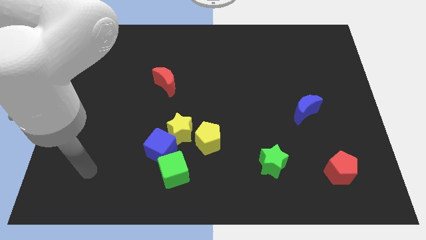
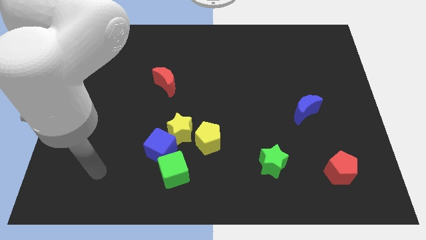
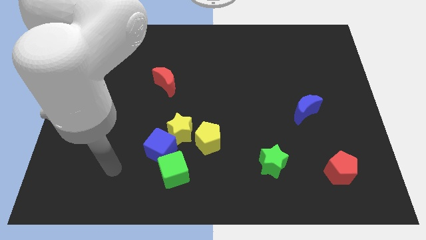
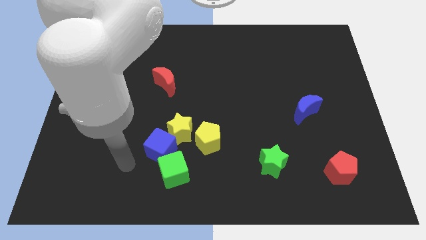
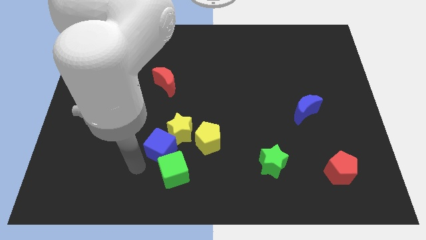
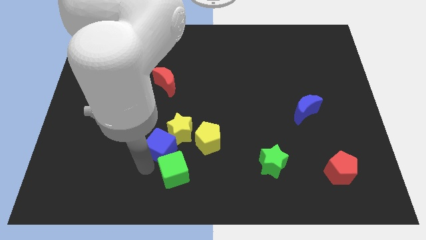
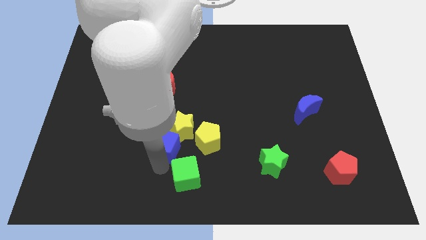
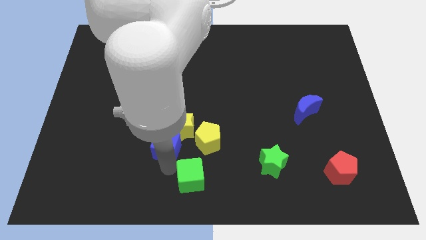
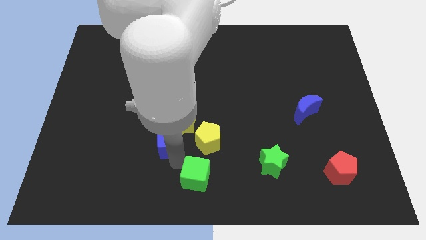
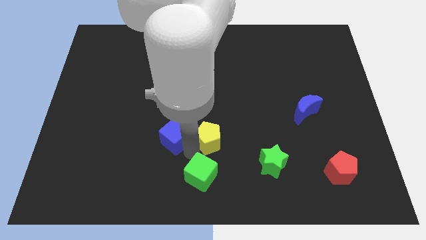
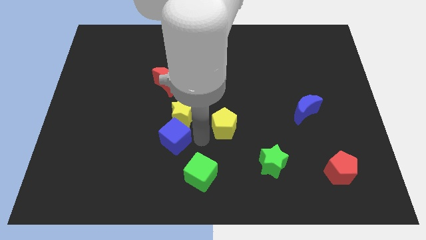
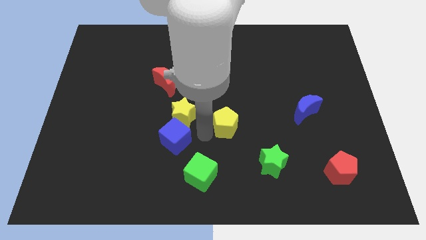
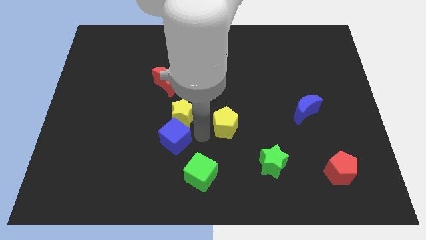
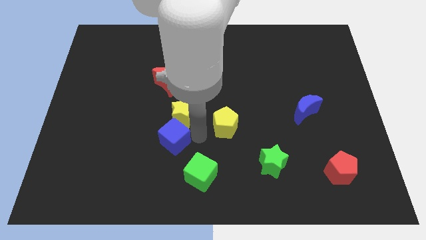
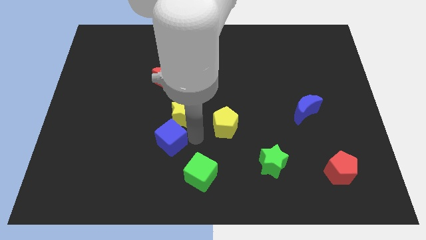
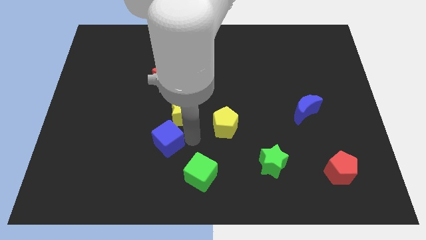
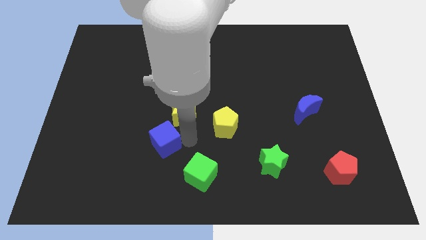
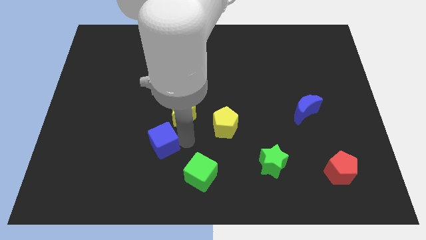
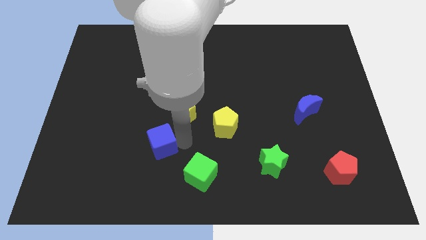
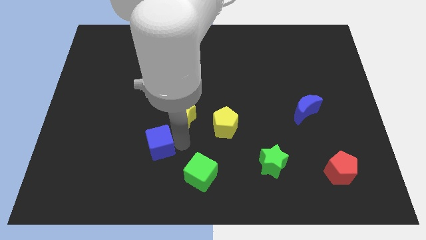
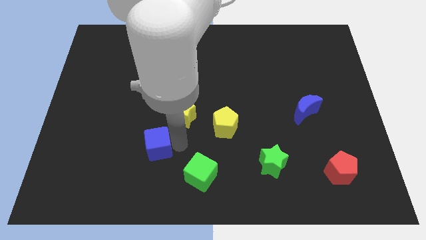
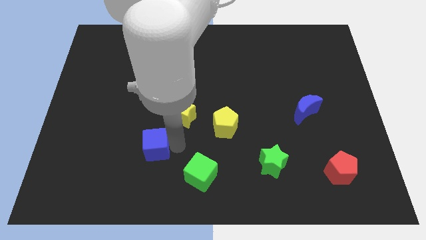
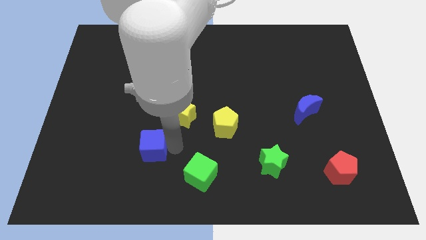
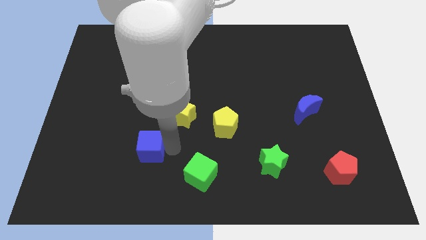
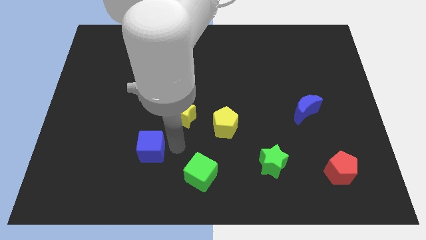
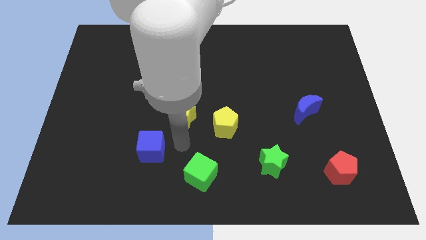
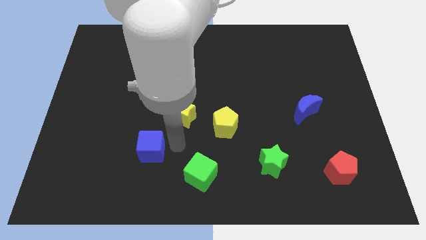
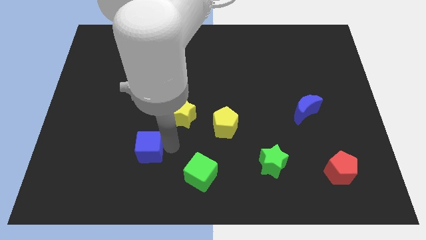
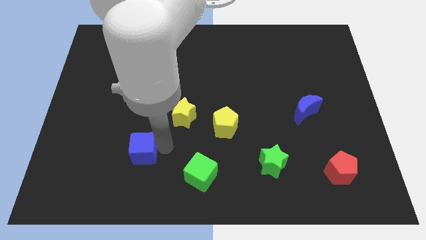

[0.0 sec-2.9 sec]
separate the blue cube from the yellow star and green cube

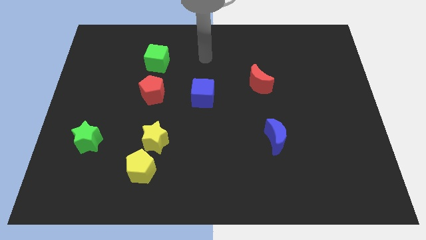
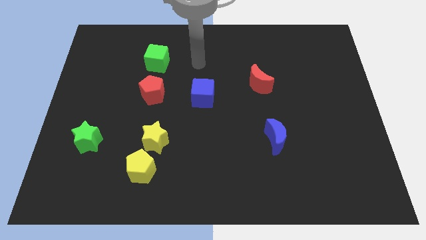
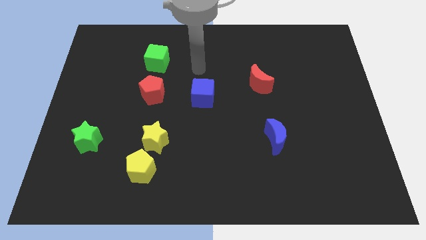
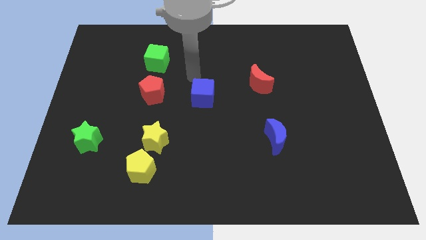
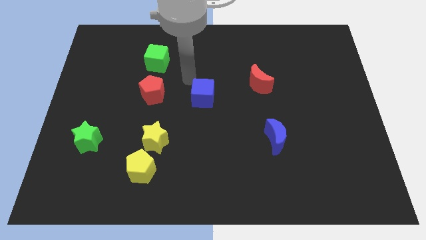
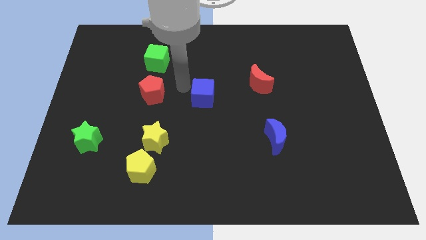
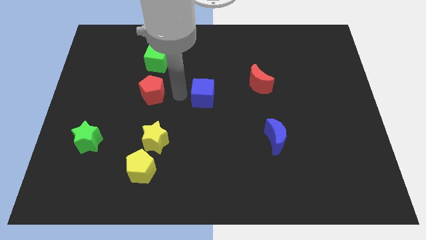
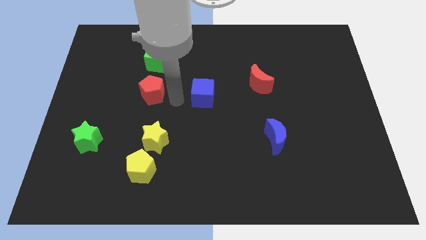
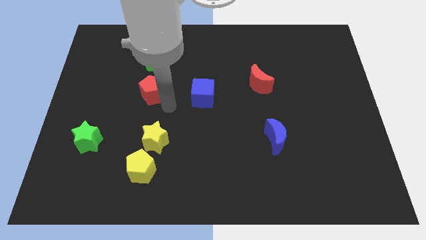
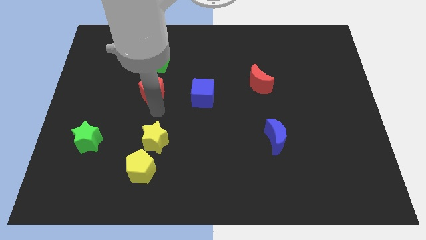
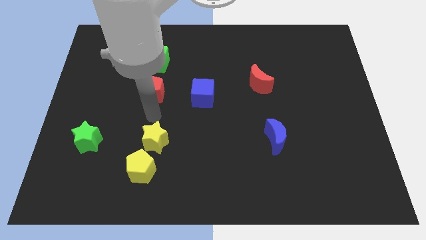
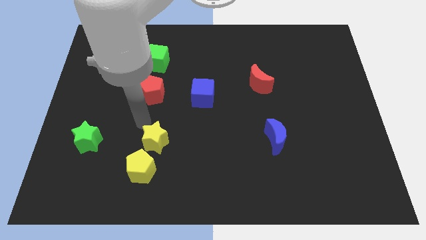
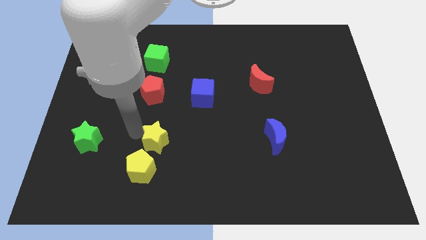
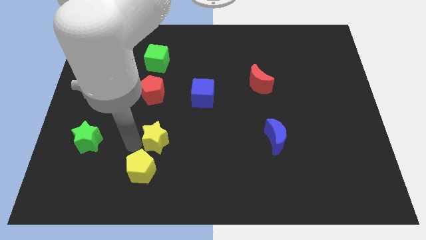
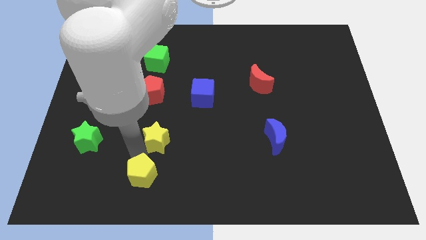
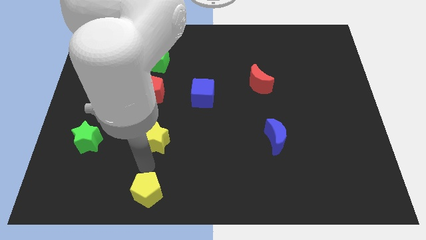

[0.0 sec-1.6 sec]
separate the yellow star from the yellow pentagon

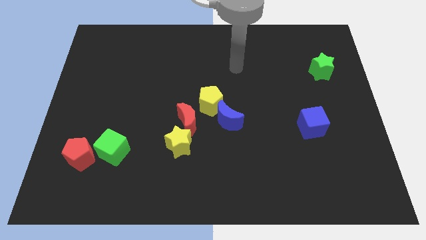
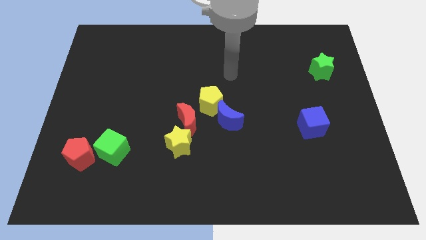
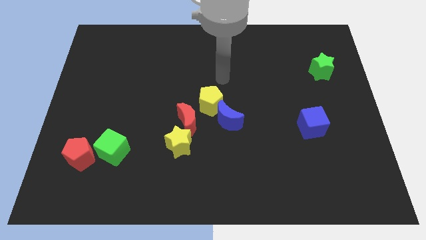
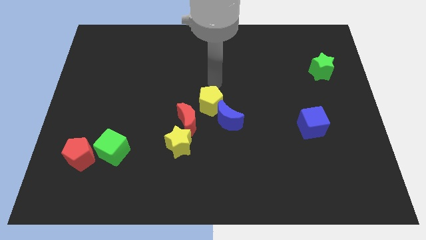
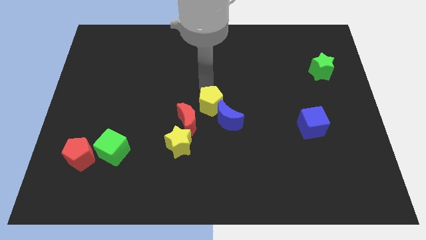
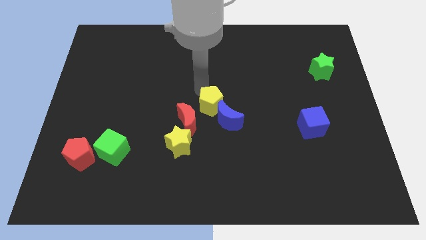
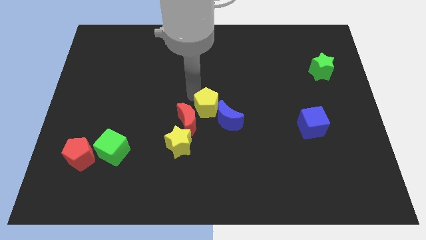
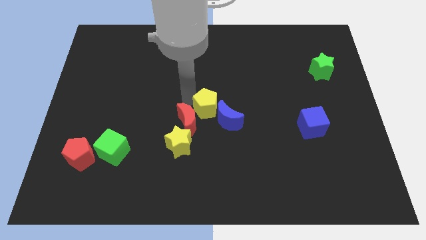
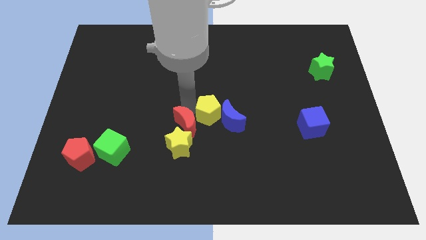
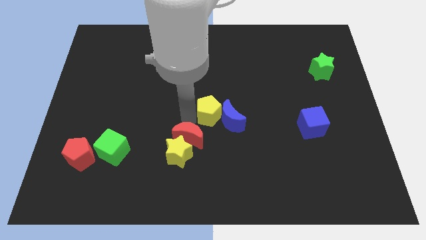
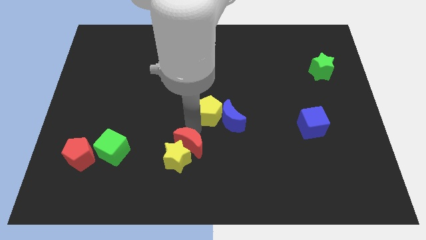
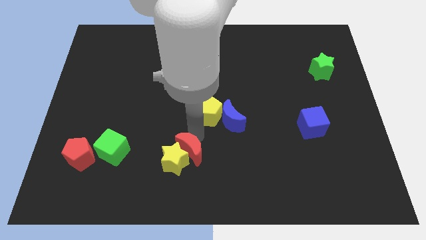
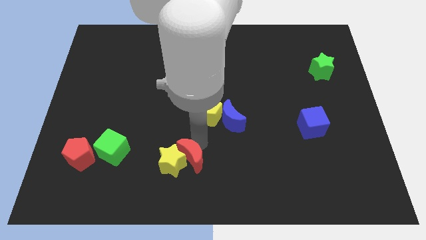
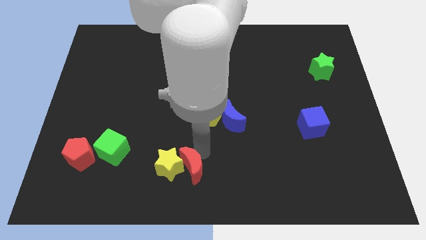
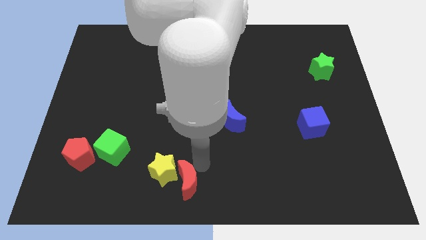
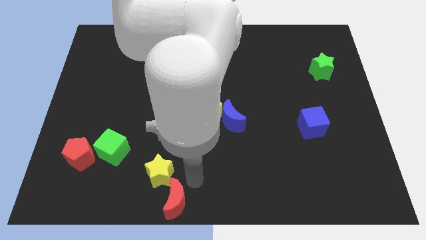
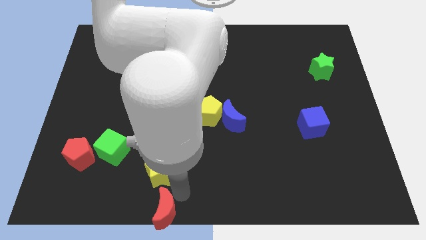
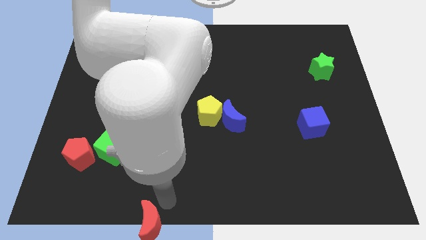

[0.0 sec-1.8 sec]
move the yellow star away from the red moon

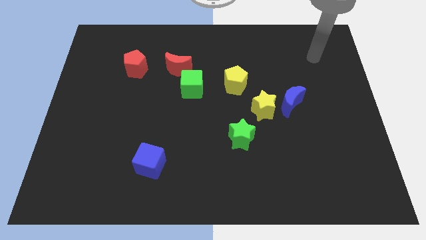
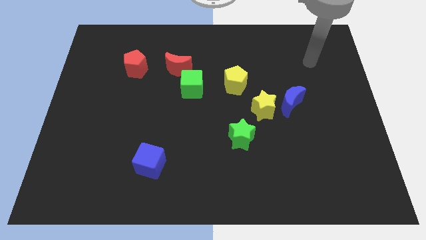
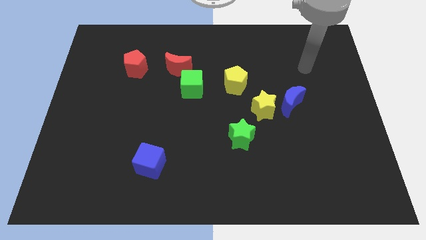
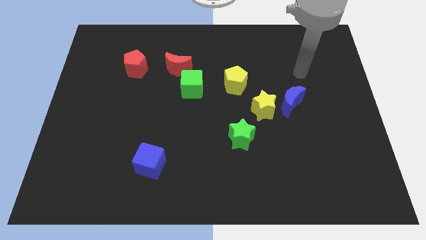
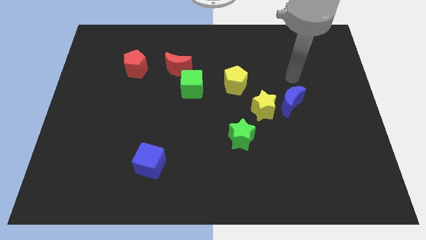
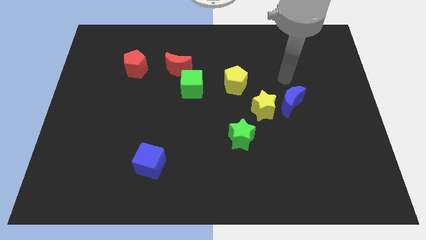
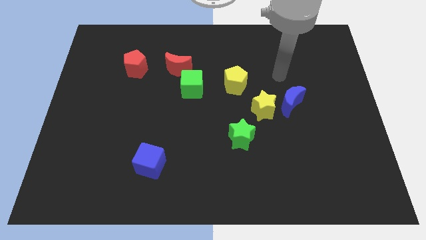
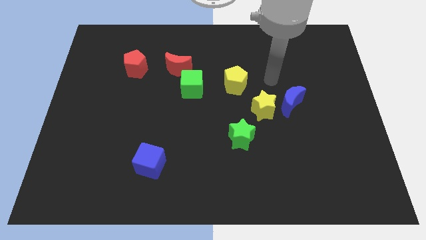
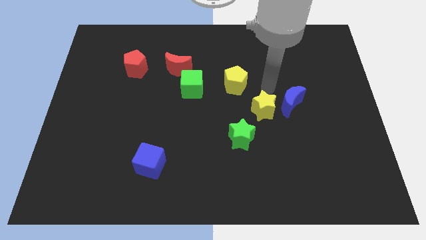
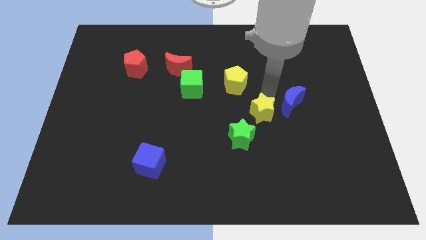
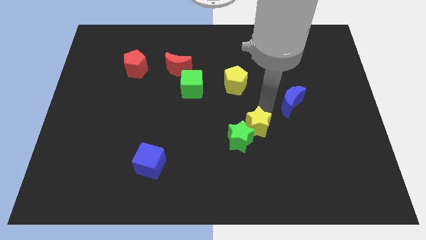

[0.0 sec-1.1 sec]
move the blue moon away from the yellow star

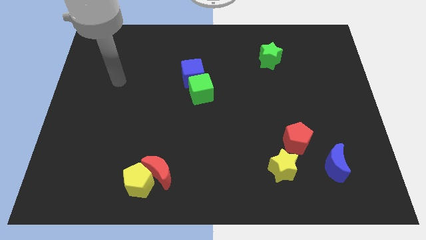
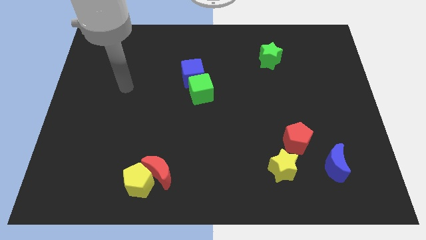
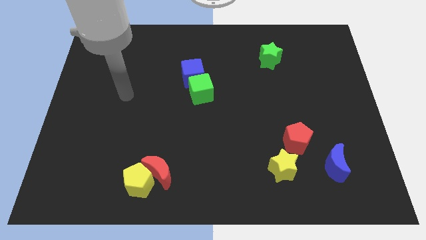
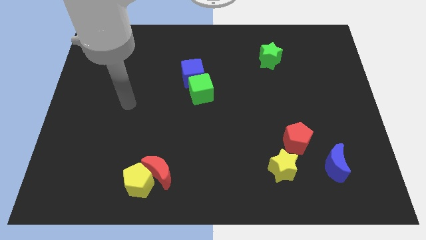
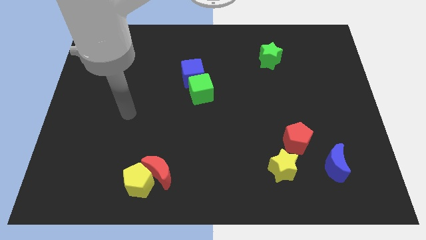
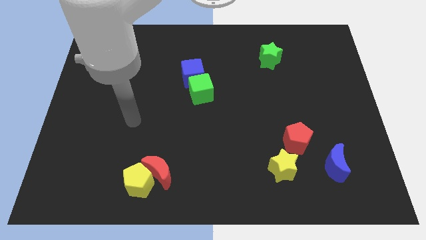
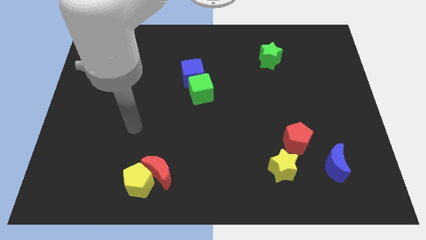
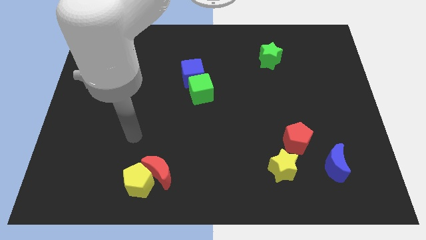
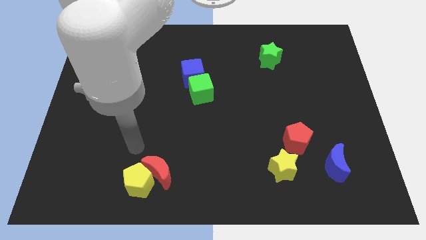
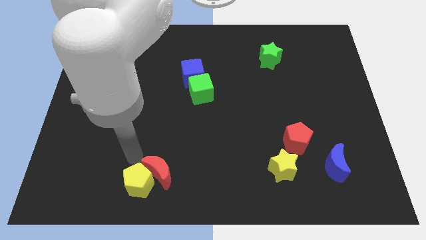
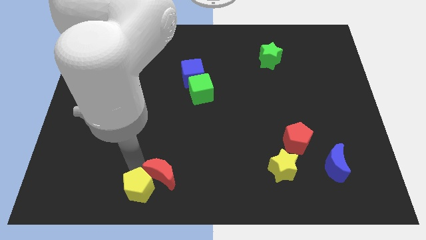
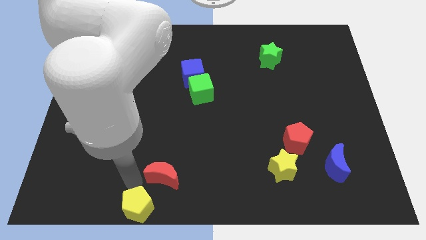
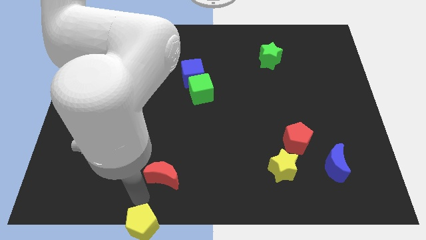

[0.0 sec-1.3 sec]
separate the red moon from the yellow pentagon

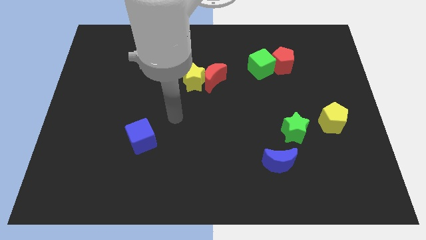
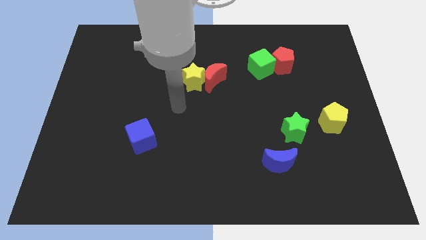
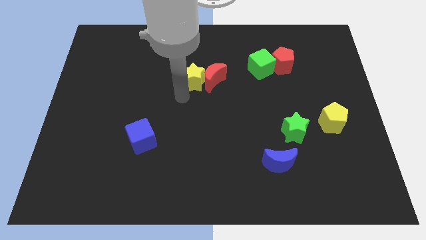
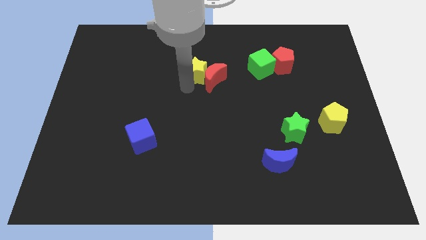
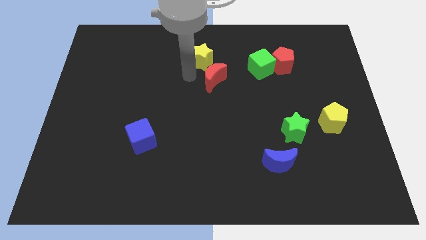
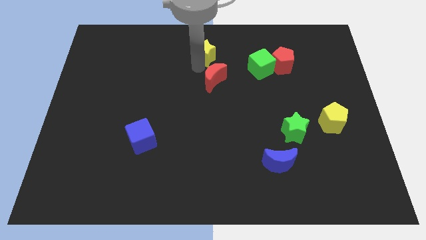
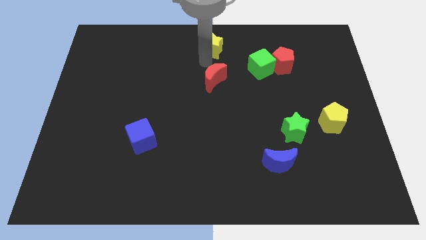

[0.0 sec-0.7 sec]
move the red moon away from the yellow star
